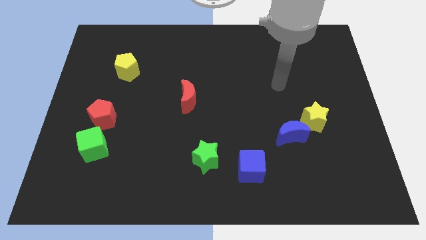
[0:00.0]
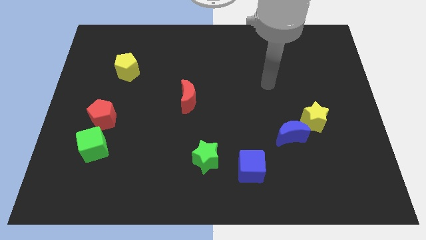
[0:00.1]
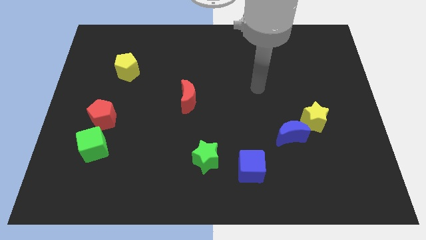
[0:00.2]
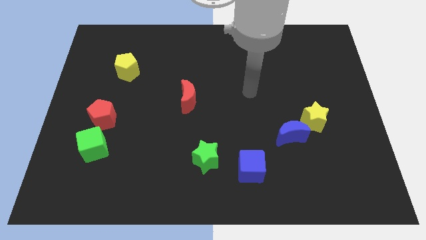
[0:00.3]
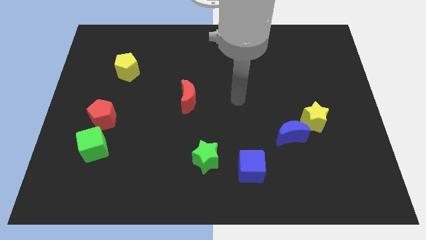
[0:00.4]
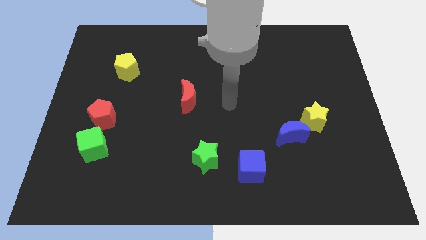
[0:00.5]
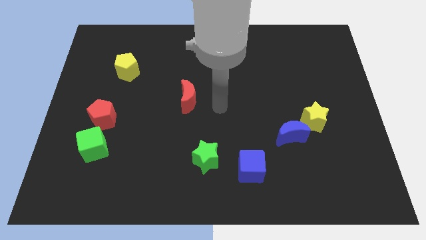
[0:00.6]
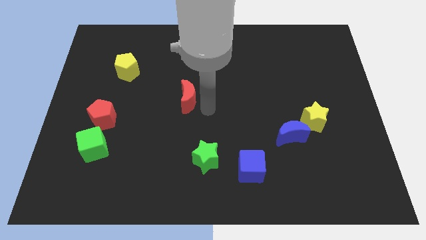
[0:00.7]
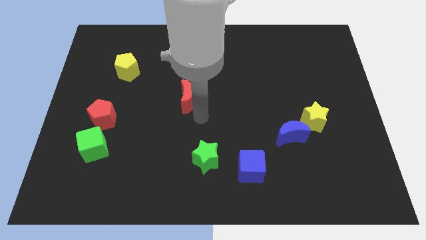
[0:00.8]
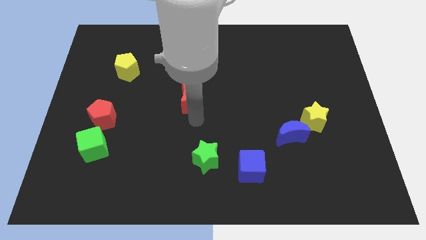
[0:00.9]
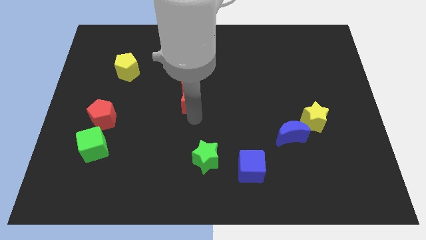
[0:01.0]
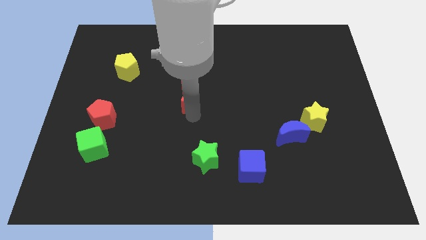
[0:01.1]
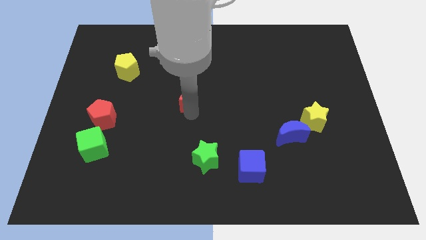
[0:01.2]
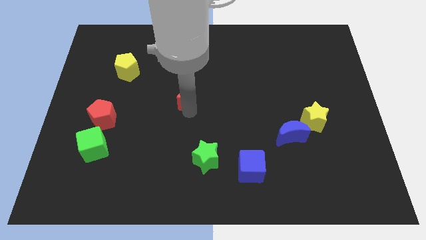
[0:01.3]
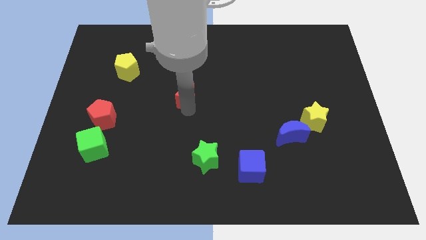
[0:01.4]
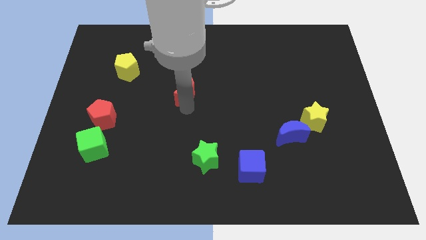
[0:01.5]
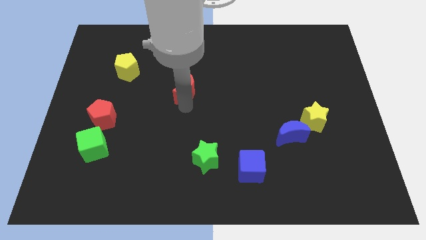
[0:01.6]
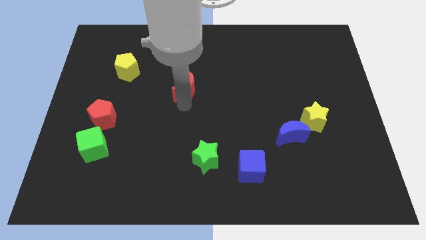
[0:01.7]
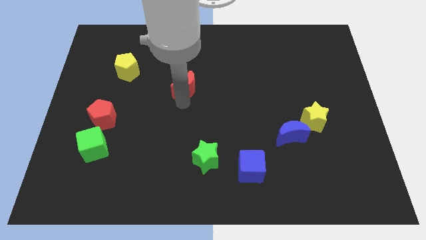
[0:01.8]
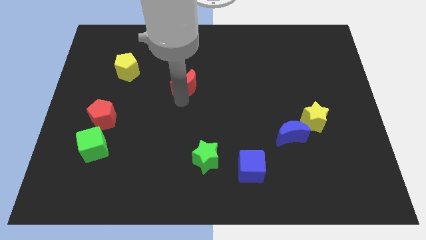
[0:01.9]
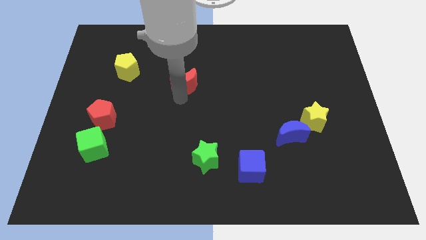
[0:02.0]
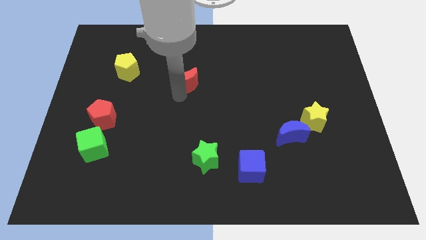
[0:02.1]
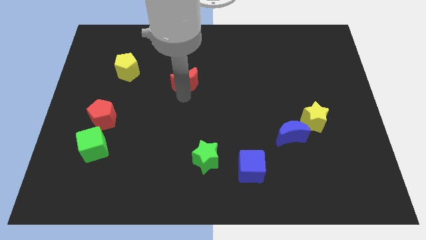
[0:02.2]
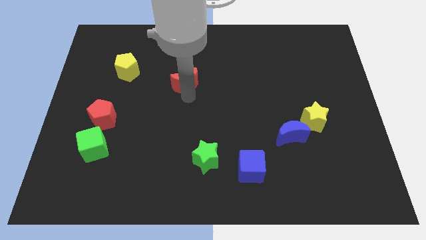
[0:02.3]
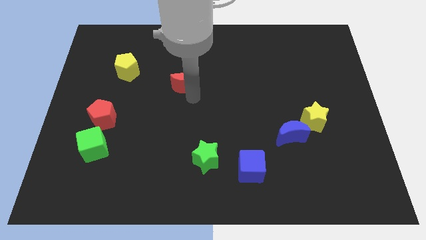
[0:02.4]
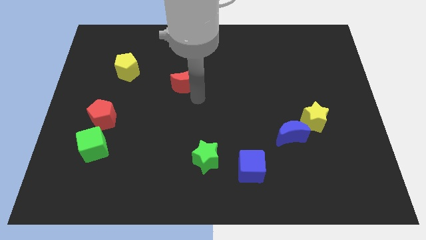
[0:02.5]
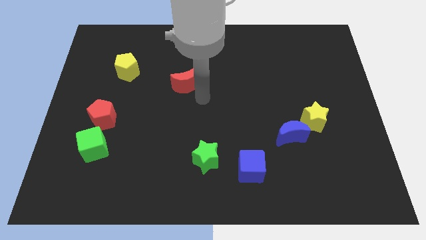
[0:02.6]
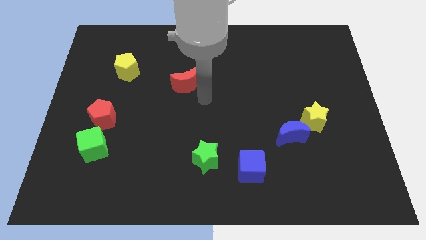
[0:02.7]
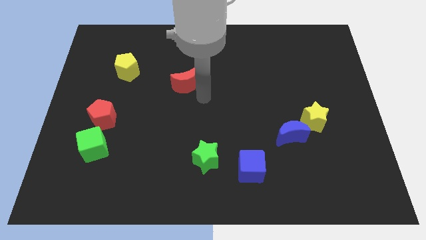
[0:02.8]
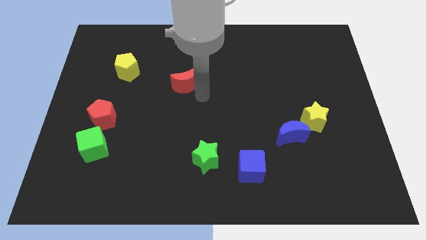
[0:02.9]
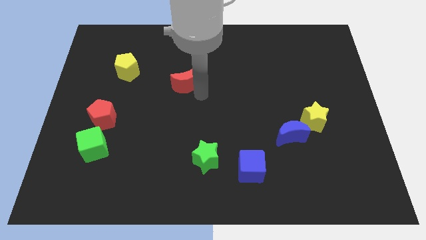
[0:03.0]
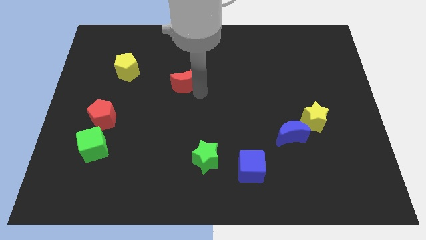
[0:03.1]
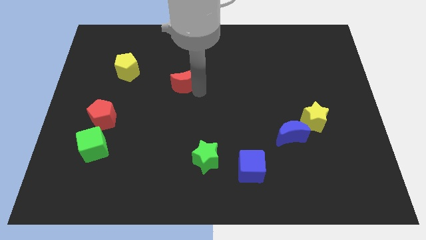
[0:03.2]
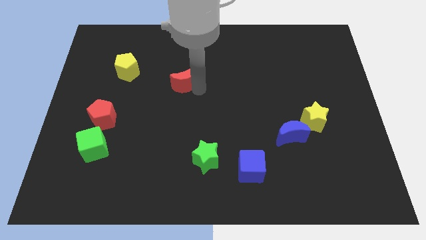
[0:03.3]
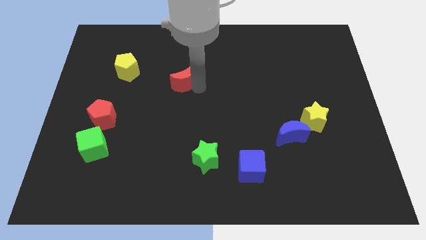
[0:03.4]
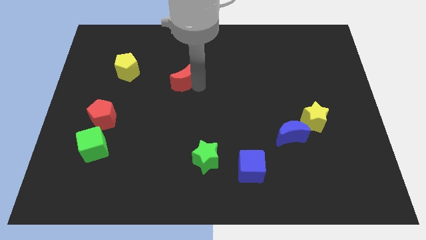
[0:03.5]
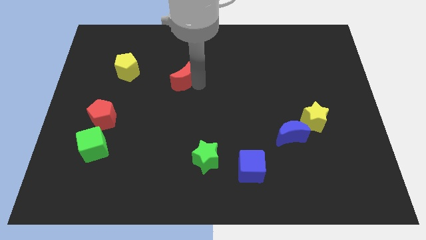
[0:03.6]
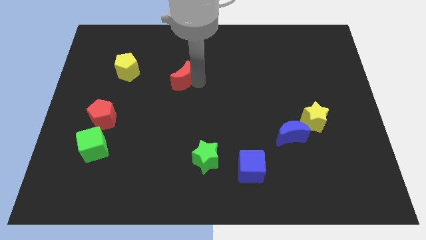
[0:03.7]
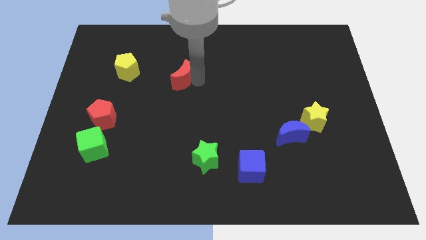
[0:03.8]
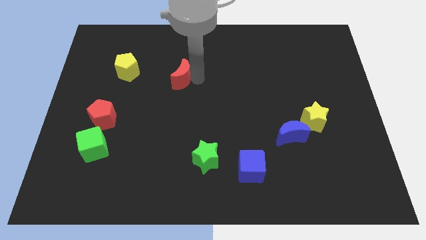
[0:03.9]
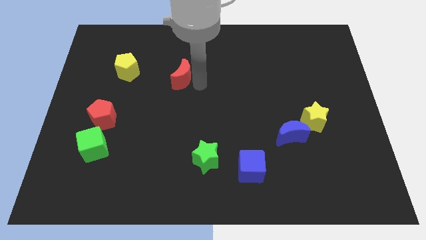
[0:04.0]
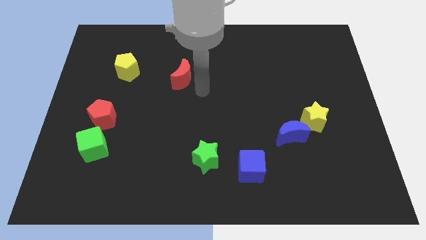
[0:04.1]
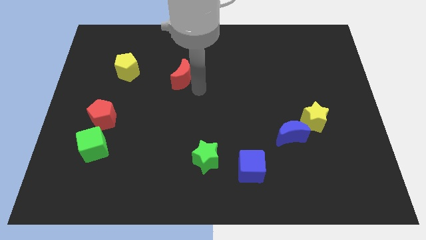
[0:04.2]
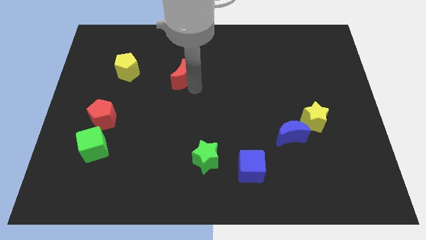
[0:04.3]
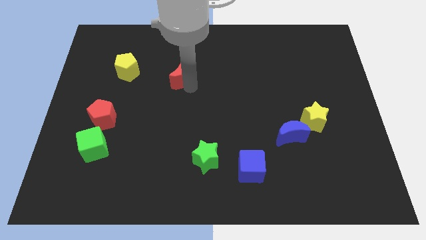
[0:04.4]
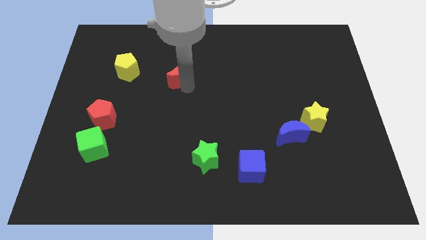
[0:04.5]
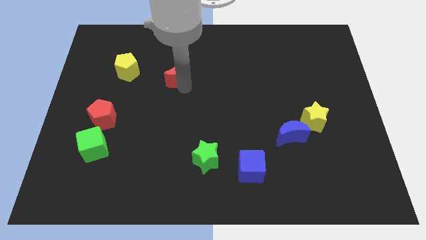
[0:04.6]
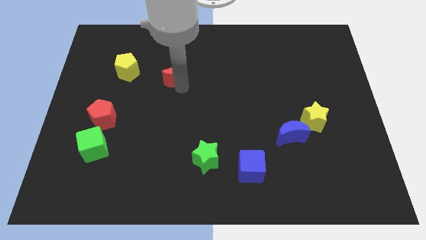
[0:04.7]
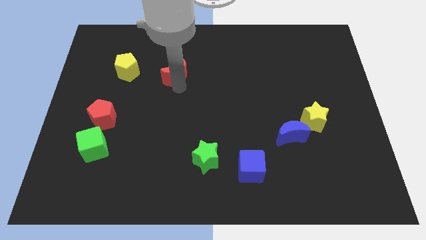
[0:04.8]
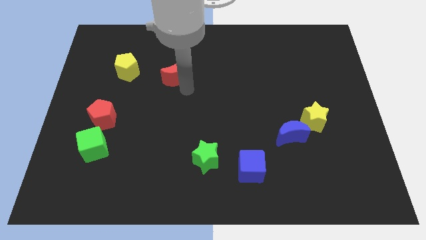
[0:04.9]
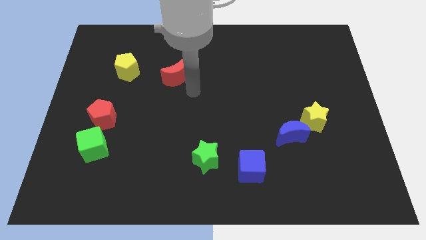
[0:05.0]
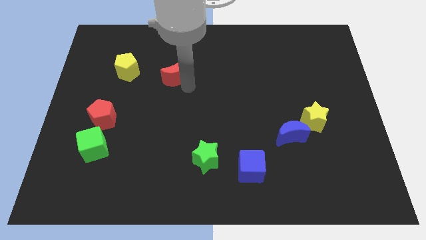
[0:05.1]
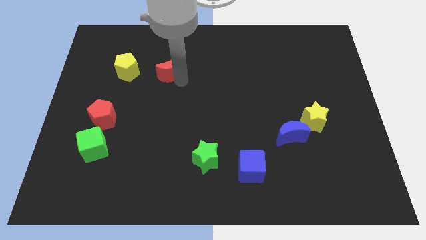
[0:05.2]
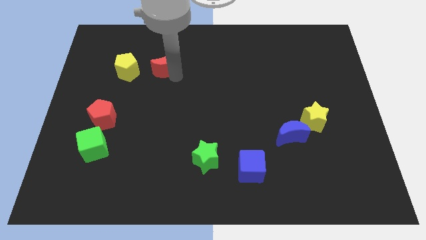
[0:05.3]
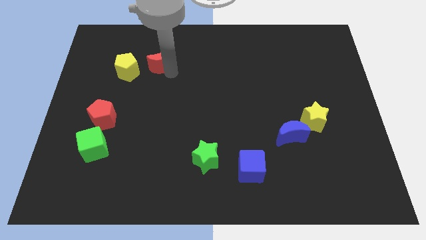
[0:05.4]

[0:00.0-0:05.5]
slide the red moon diagonally up and to the right of the yellow pentagon

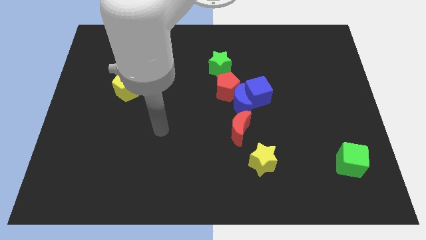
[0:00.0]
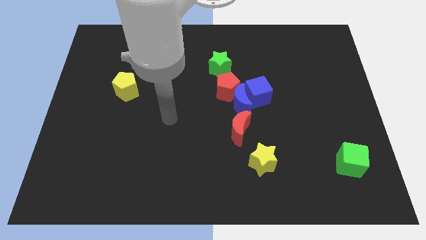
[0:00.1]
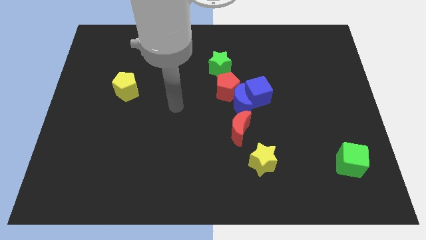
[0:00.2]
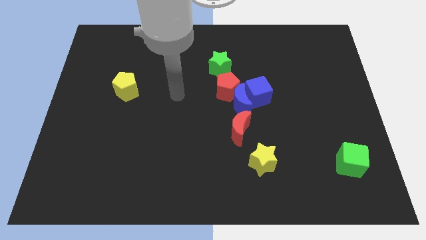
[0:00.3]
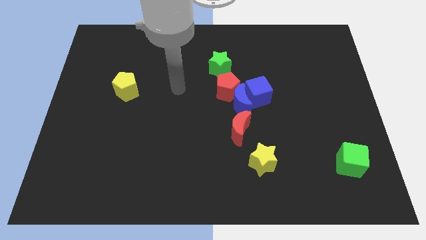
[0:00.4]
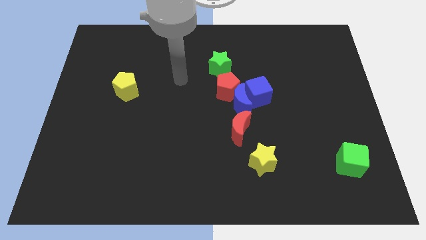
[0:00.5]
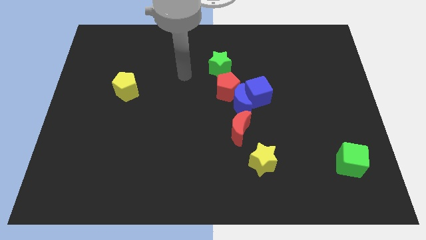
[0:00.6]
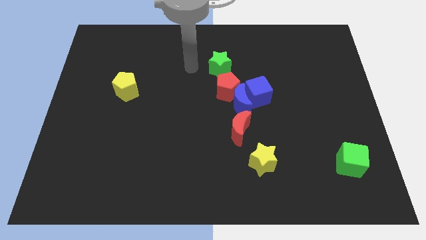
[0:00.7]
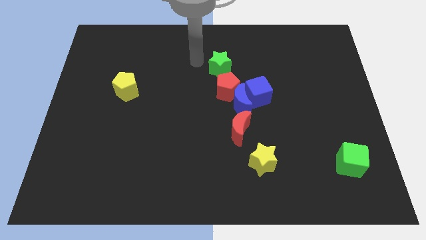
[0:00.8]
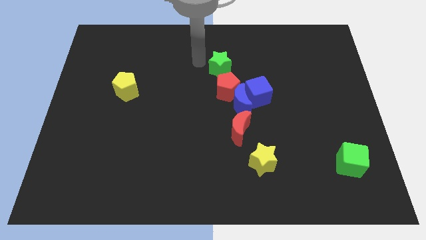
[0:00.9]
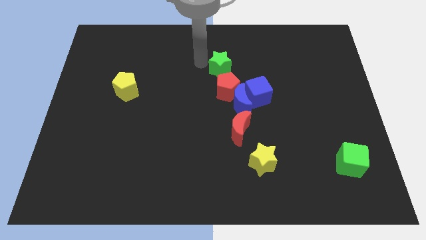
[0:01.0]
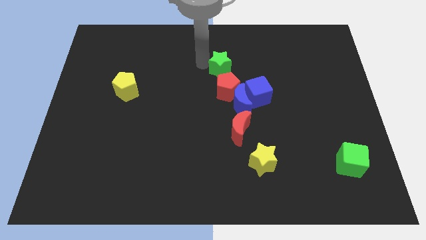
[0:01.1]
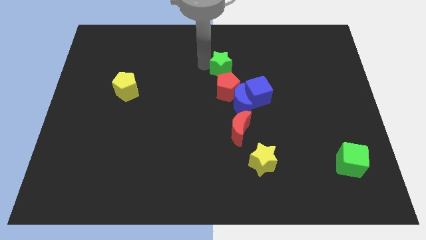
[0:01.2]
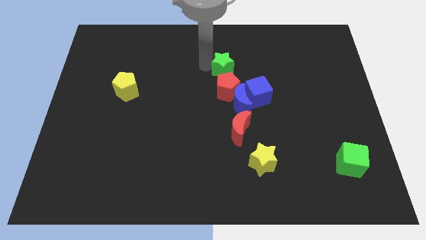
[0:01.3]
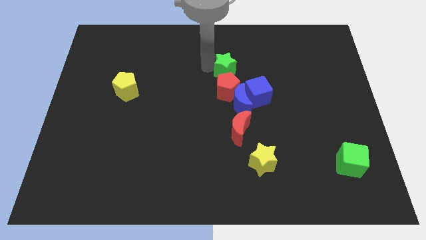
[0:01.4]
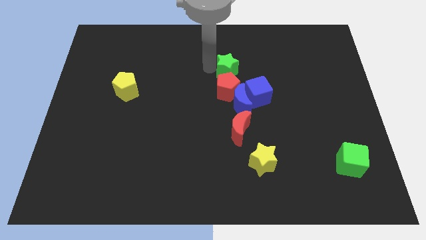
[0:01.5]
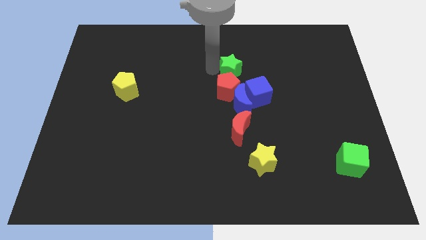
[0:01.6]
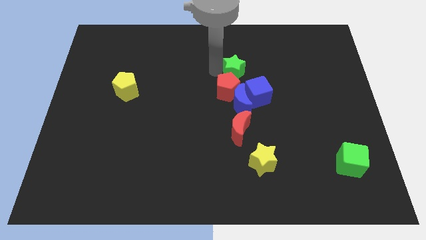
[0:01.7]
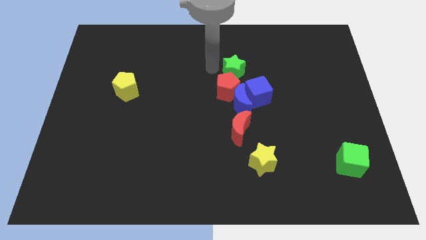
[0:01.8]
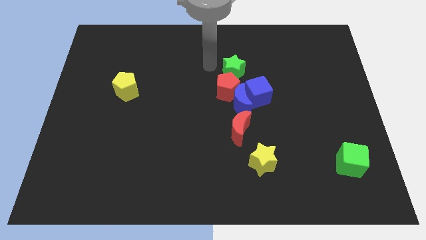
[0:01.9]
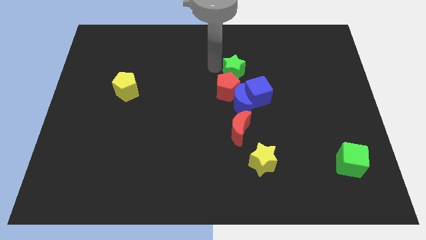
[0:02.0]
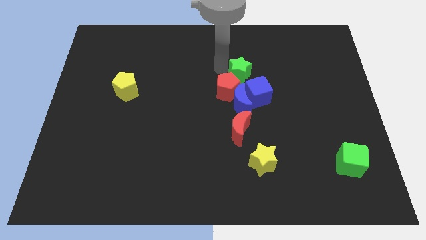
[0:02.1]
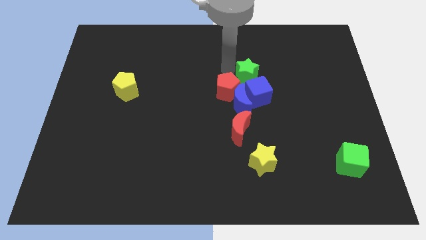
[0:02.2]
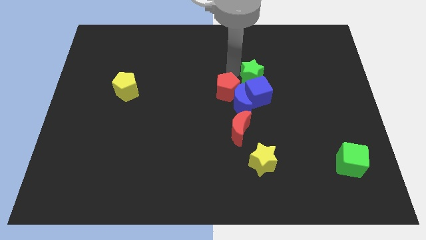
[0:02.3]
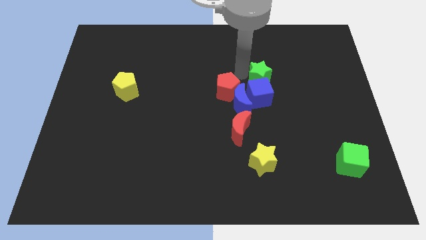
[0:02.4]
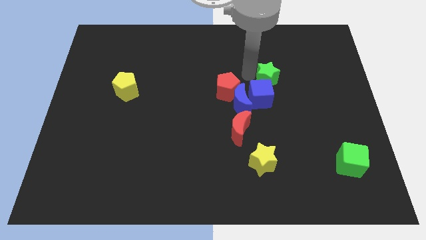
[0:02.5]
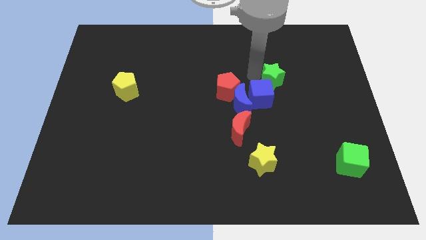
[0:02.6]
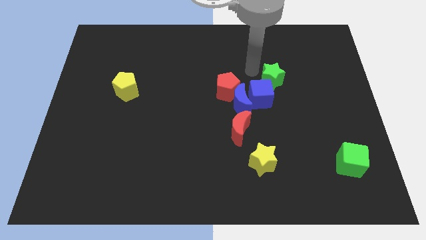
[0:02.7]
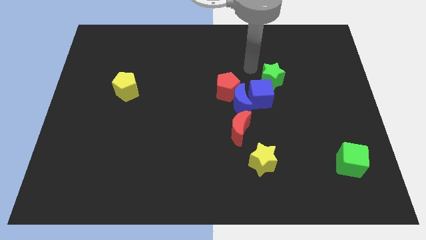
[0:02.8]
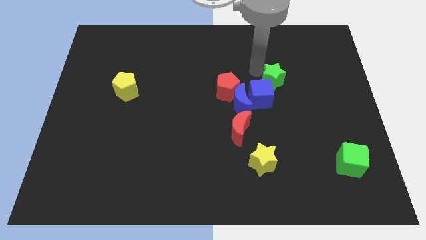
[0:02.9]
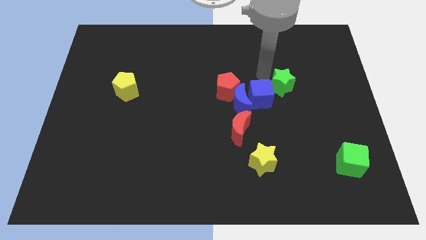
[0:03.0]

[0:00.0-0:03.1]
push the green star to the right side of the blue cube
